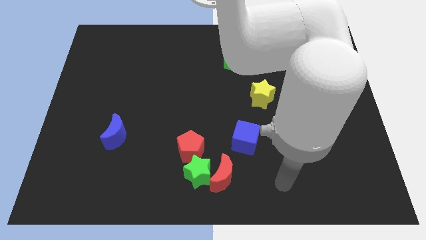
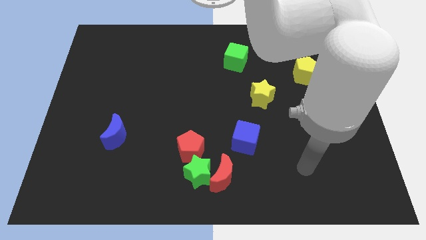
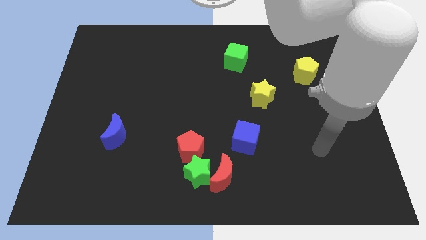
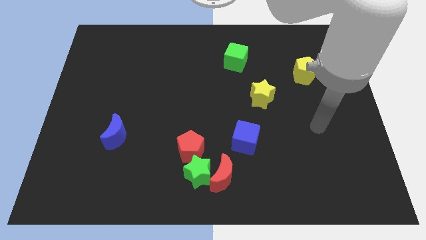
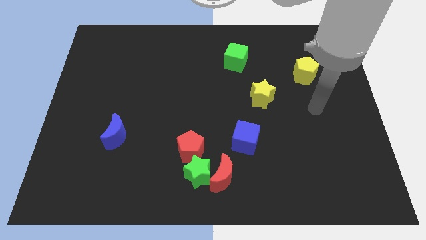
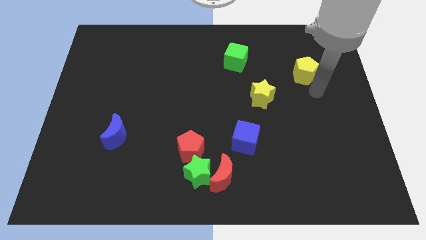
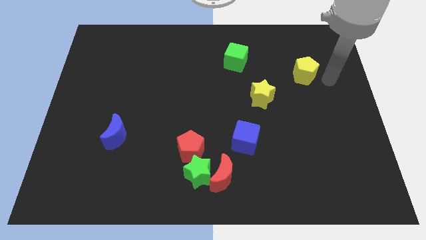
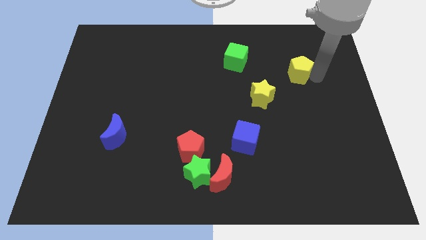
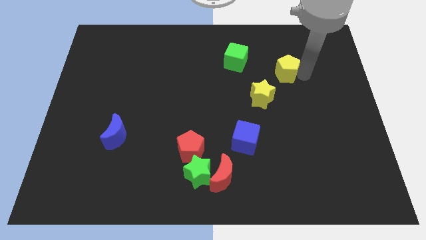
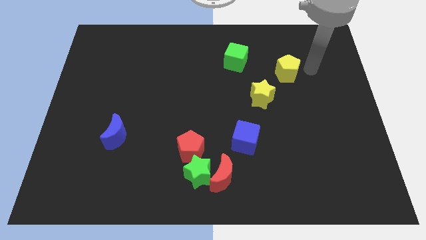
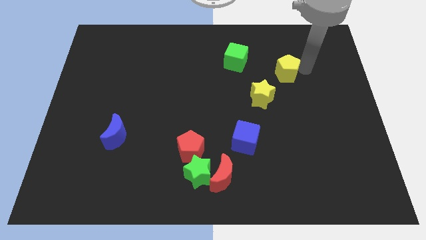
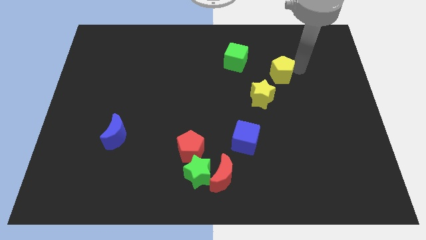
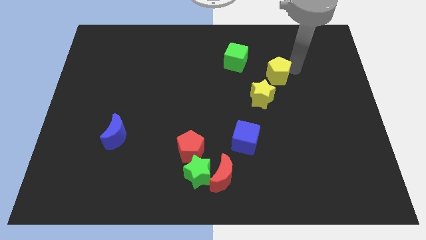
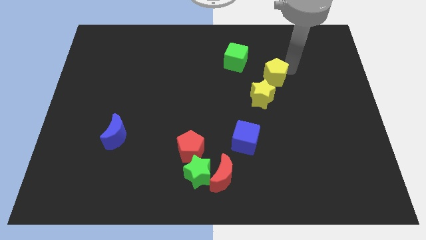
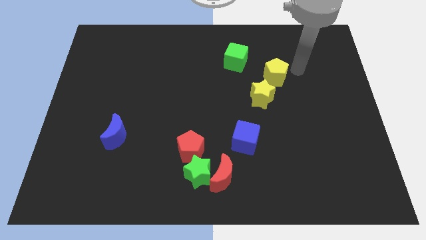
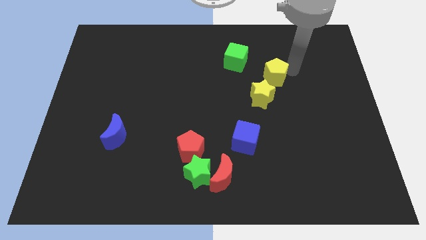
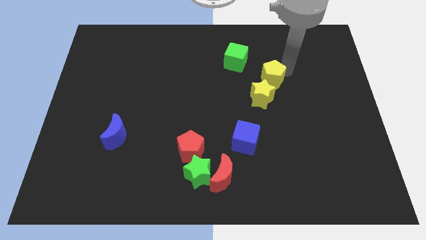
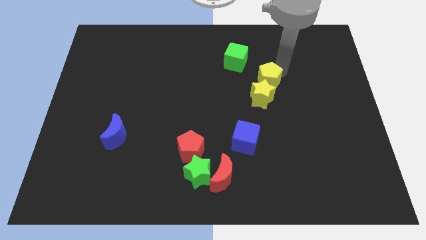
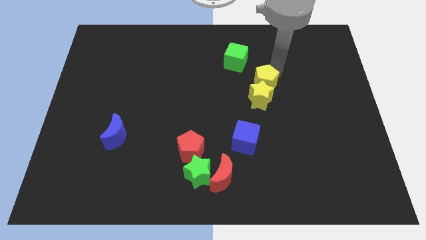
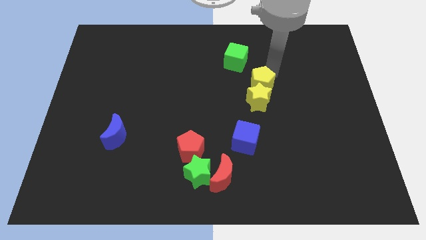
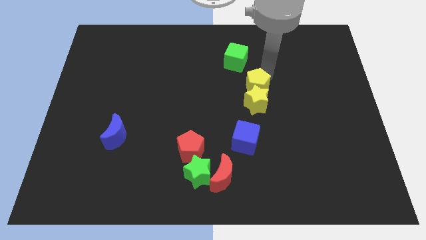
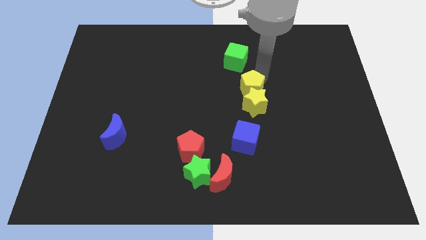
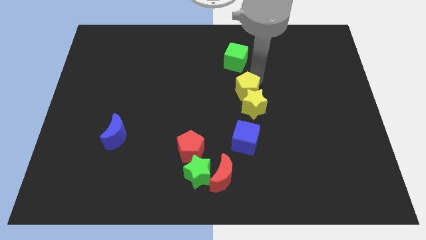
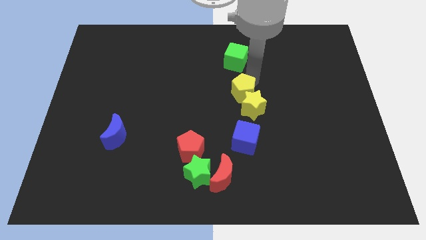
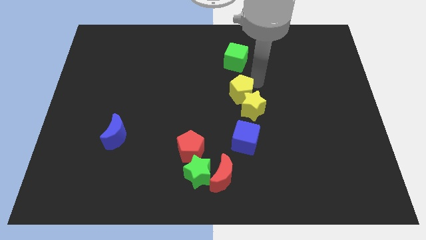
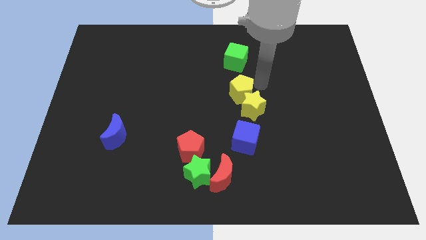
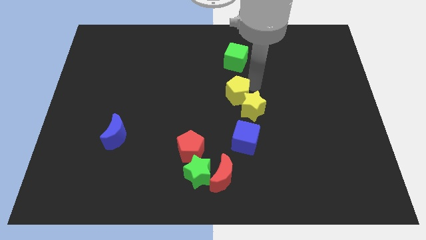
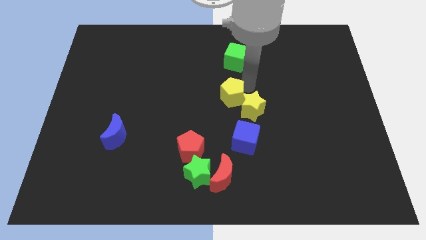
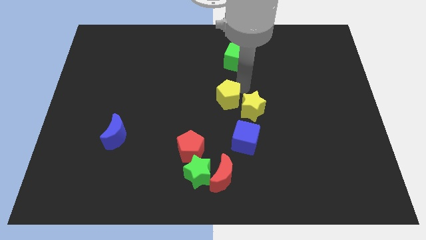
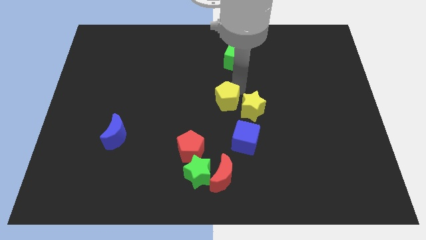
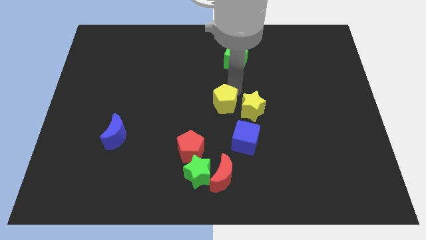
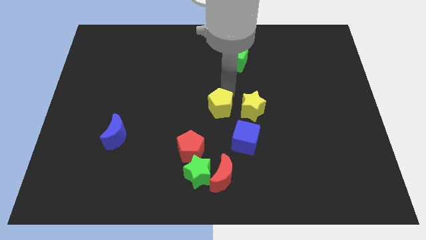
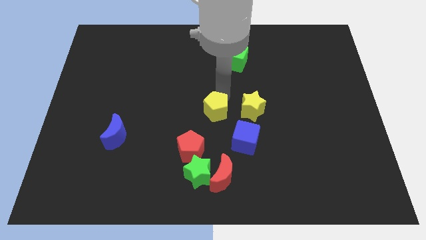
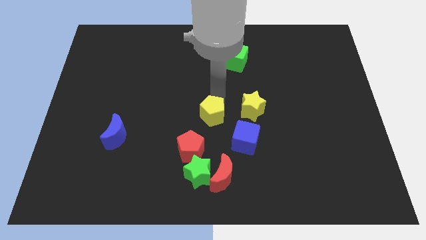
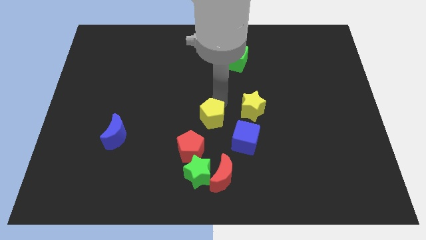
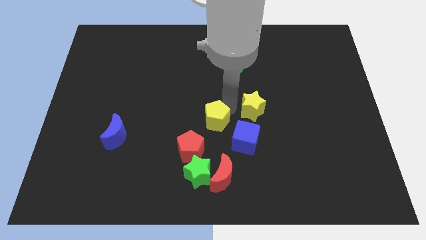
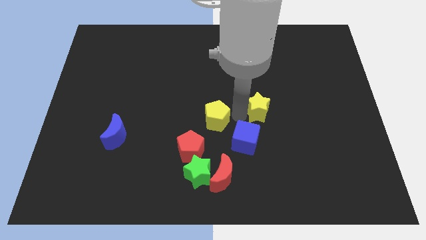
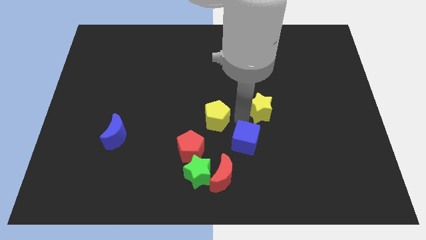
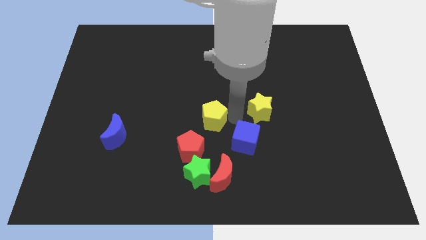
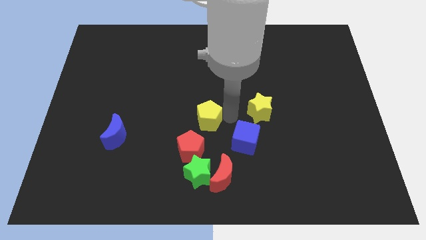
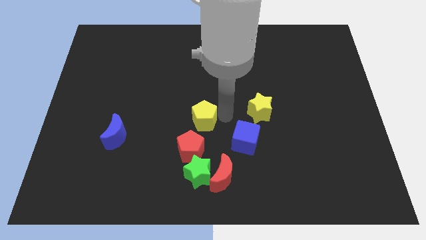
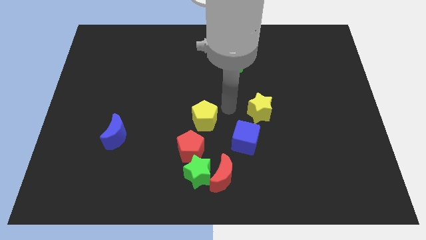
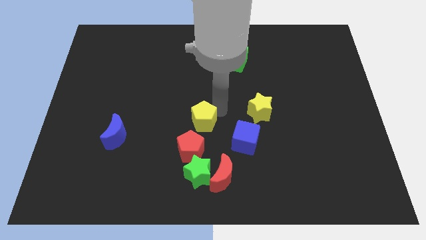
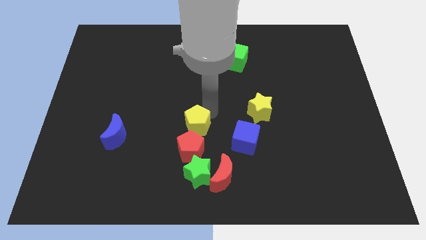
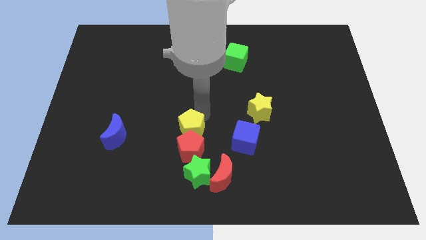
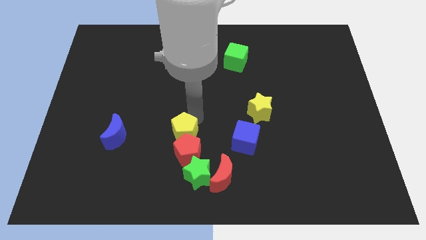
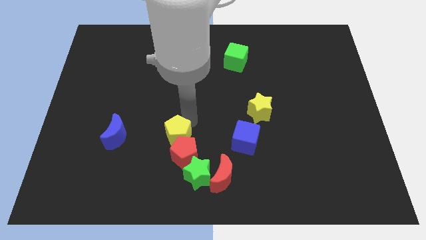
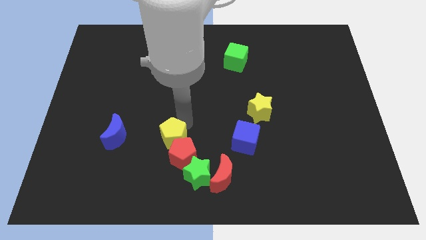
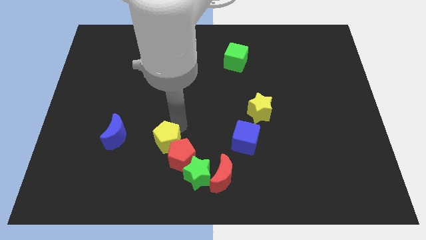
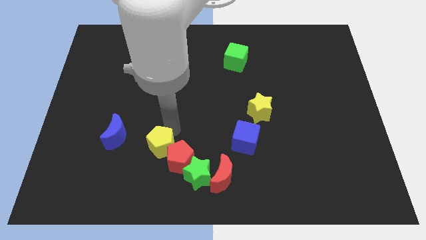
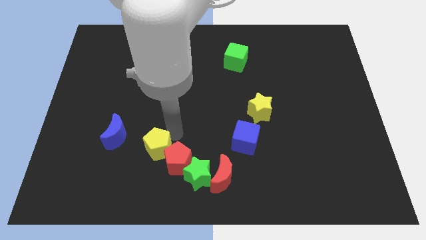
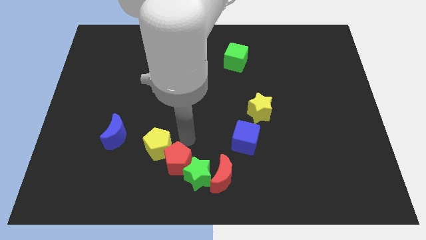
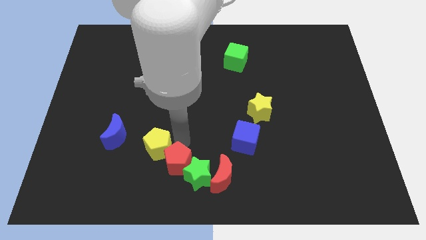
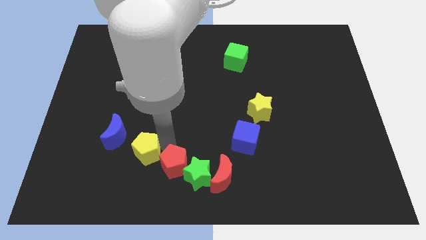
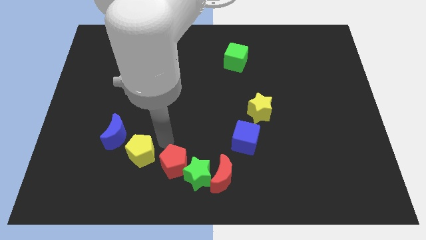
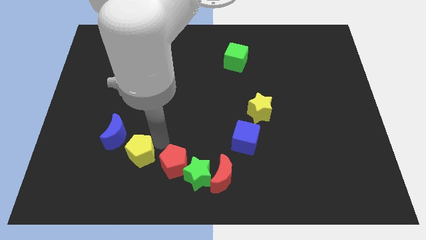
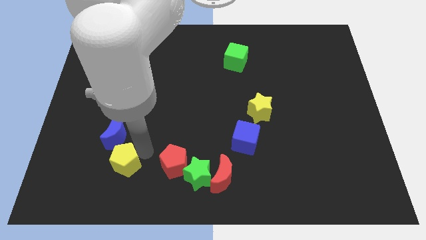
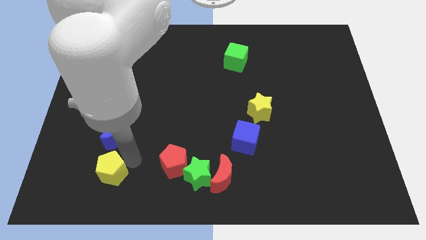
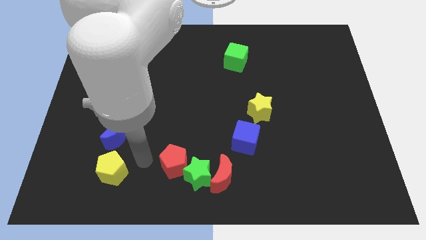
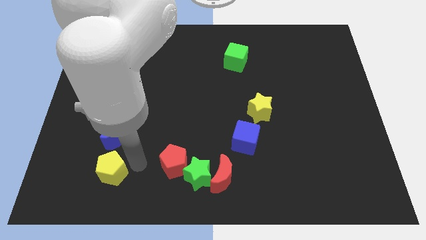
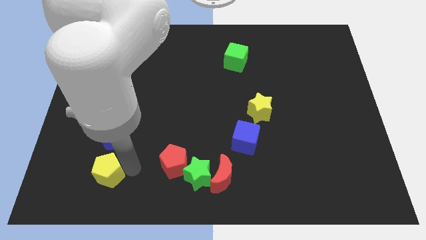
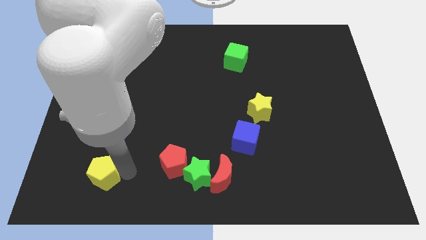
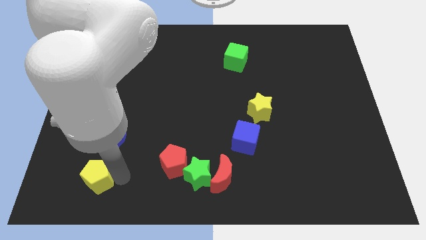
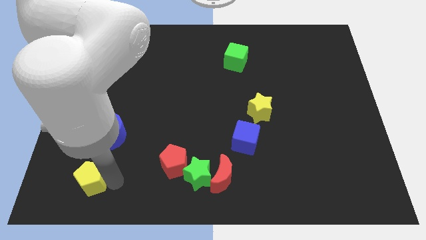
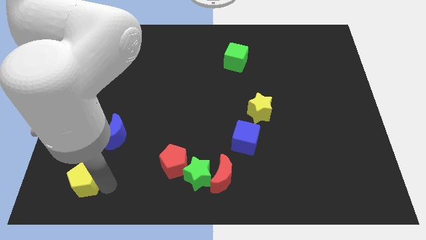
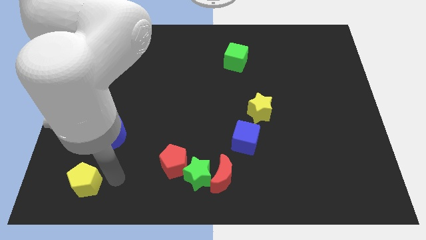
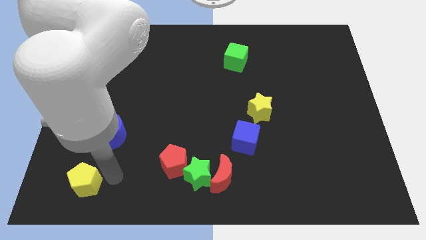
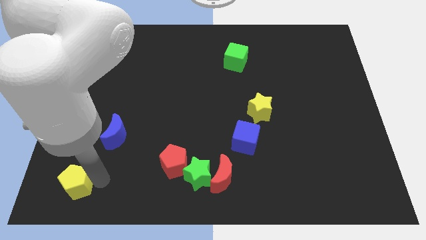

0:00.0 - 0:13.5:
push the yellow pentagon to the lower left corner

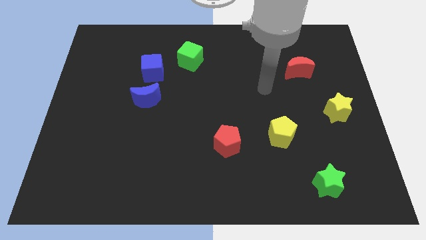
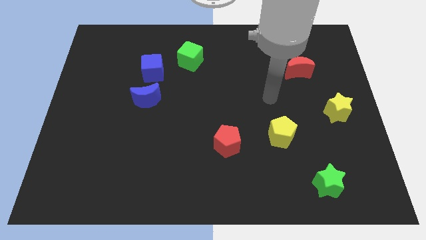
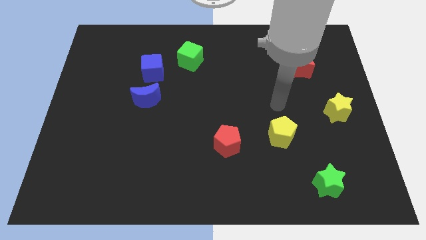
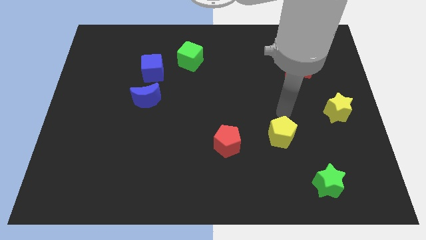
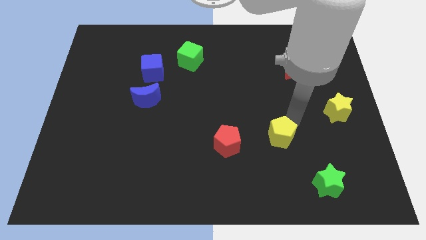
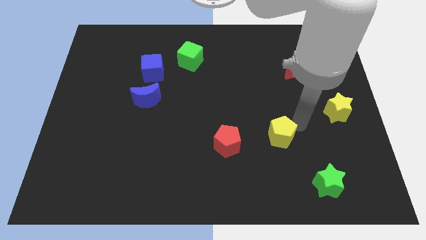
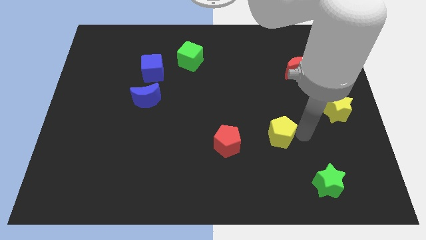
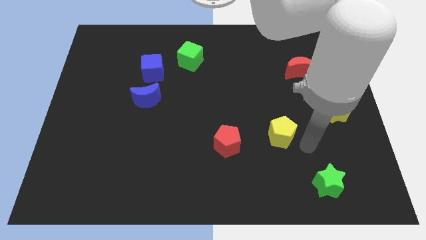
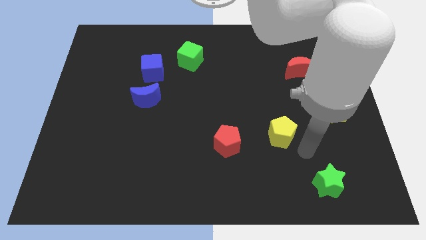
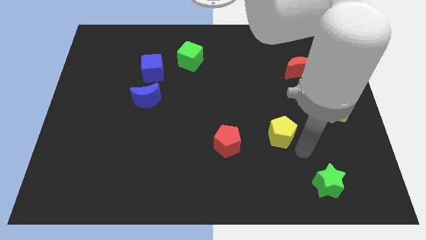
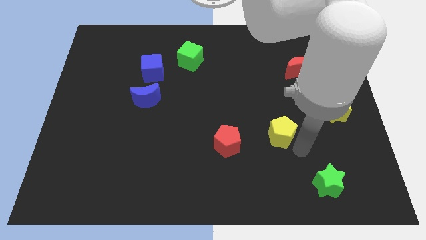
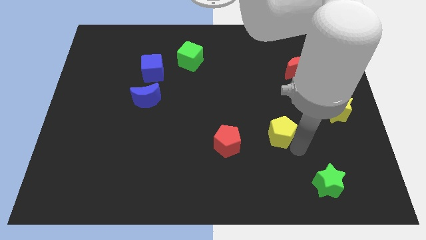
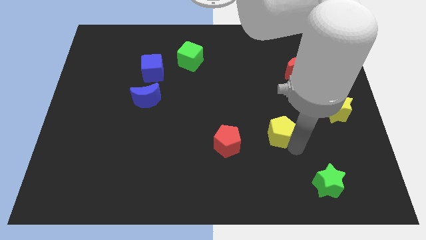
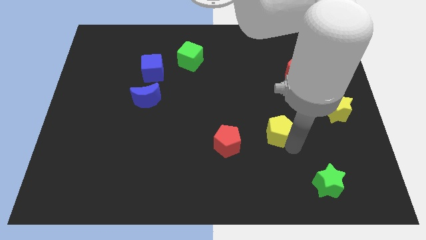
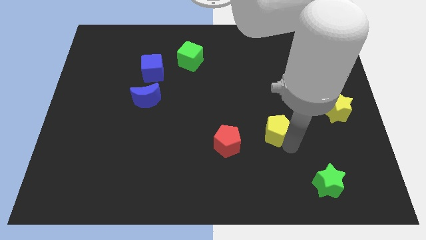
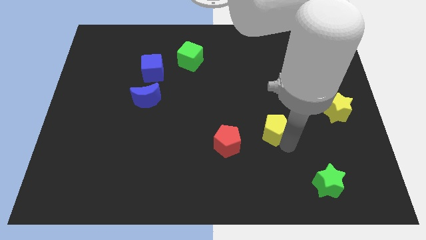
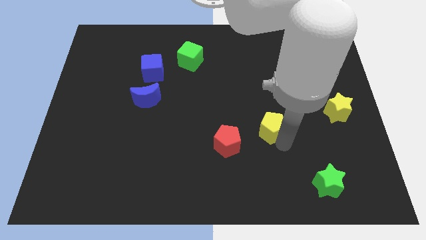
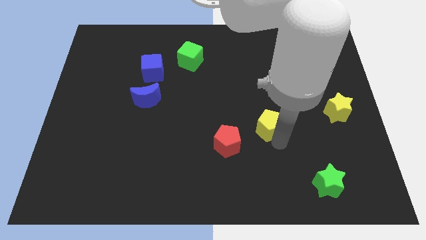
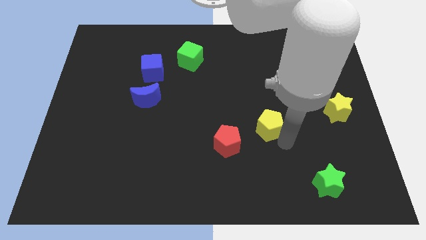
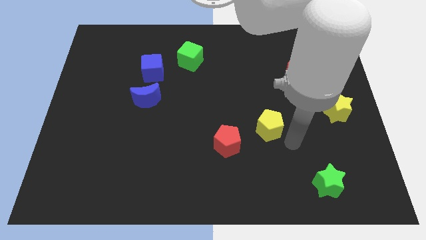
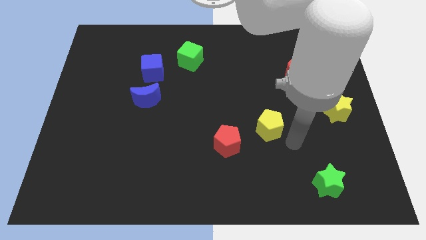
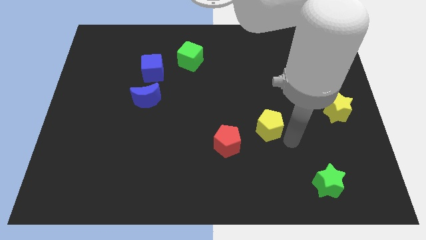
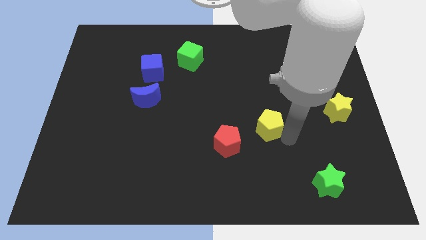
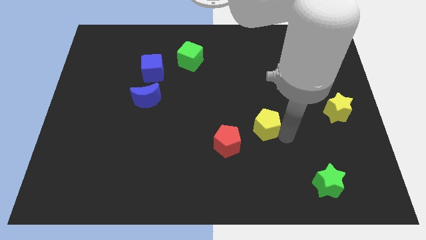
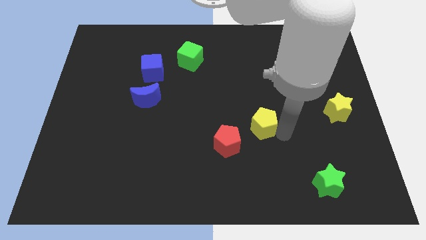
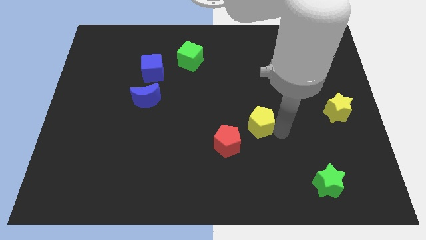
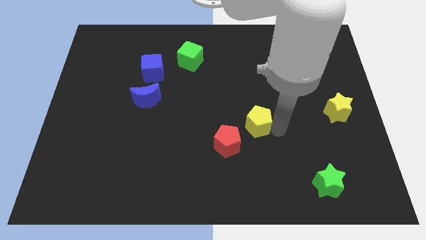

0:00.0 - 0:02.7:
slide the yellow pentagon to the middle of the board
